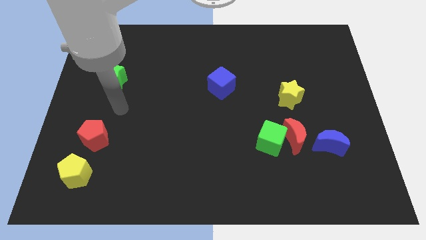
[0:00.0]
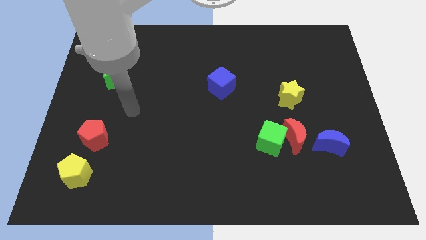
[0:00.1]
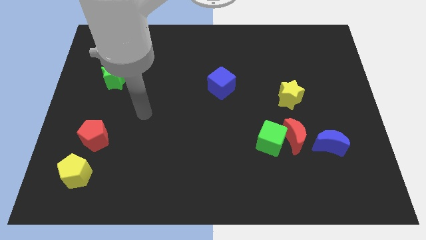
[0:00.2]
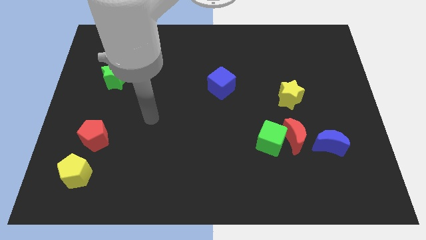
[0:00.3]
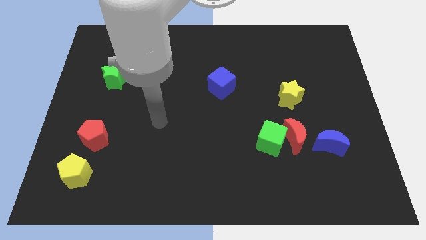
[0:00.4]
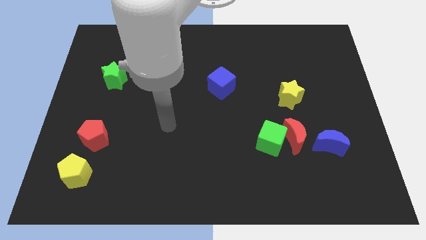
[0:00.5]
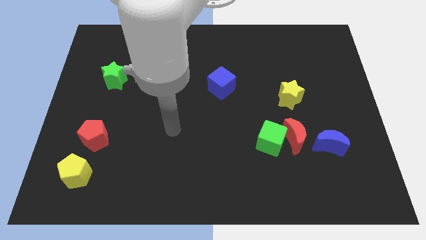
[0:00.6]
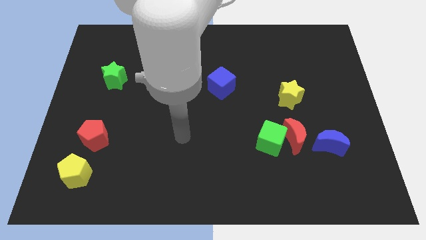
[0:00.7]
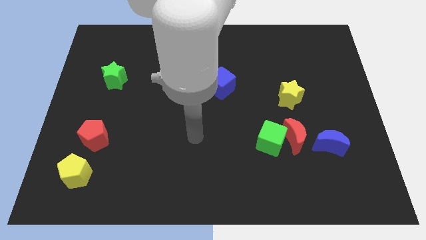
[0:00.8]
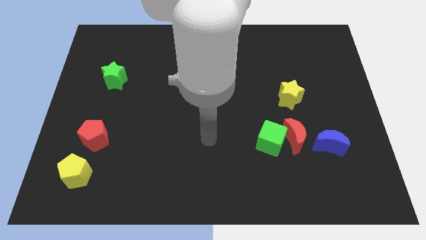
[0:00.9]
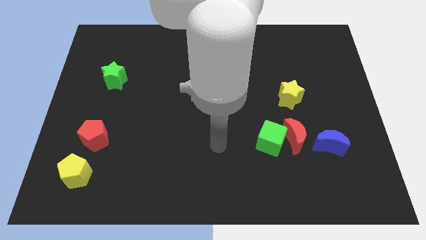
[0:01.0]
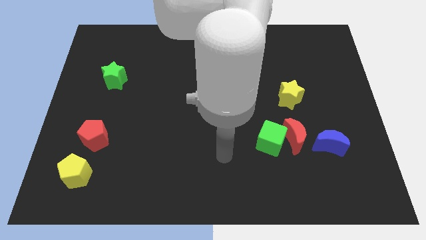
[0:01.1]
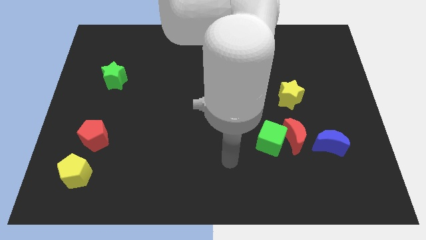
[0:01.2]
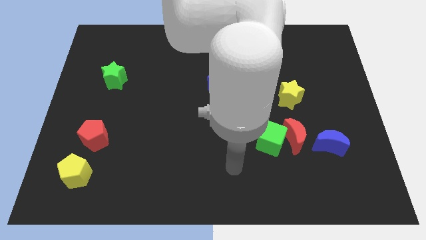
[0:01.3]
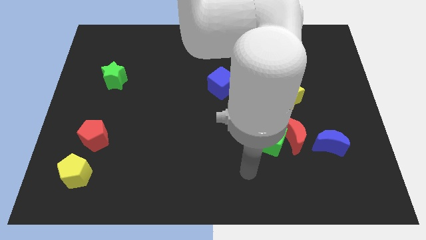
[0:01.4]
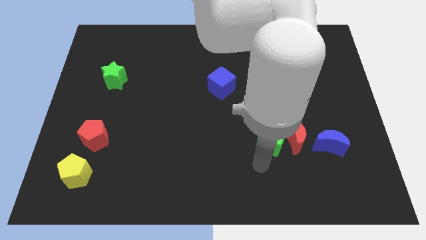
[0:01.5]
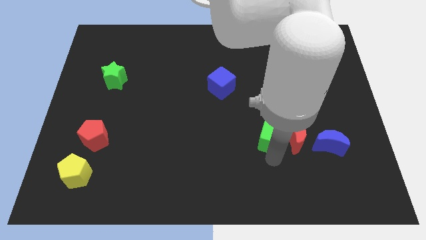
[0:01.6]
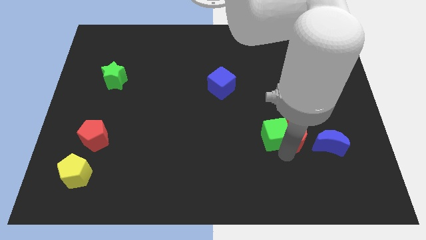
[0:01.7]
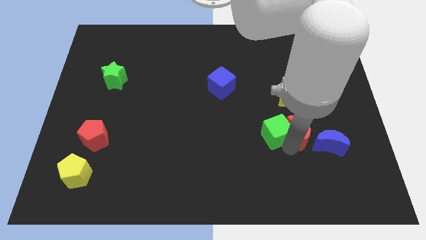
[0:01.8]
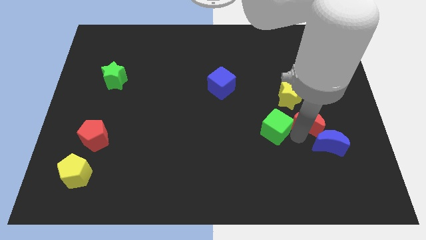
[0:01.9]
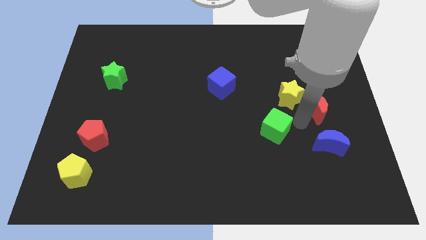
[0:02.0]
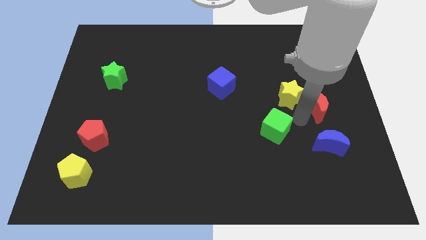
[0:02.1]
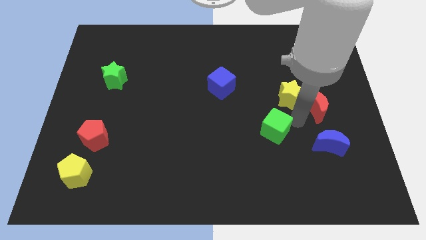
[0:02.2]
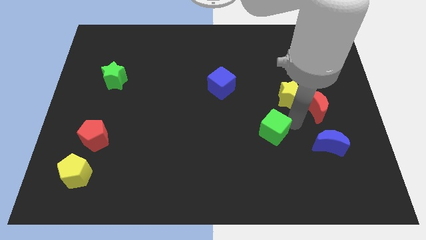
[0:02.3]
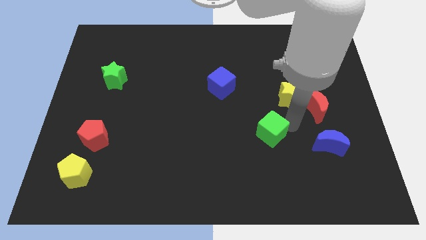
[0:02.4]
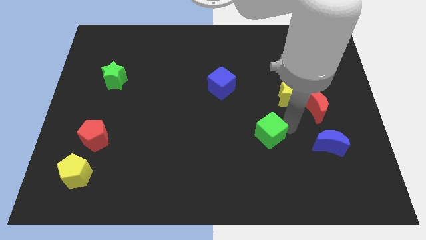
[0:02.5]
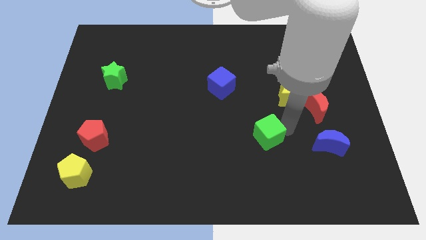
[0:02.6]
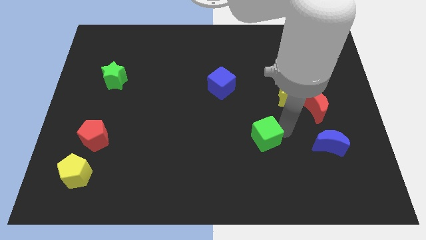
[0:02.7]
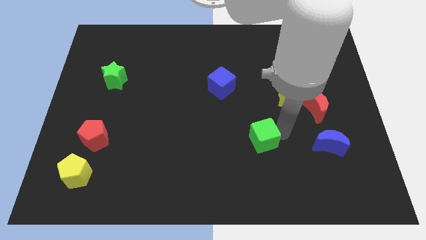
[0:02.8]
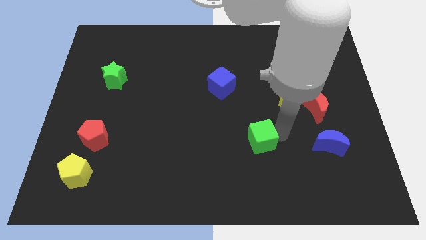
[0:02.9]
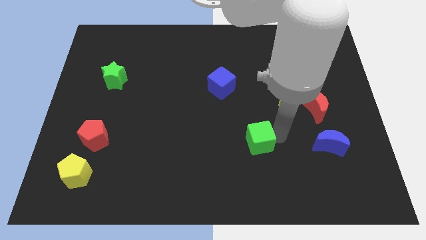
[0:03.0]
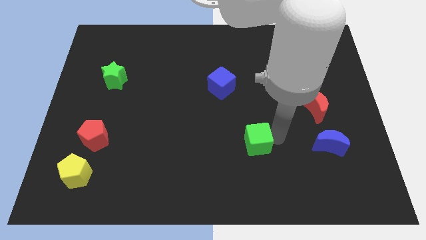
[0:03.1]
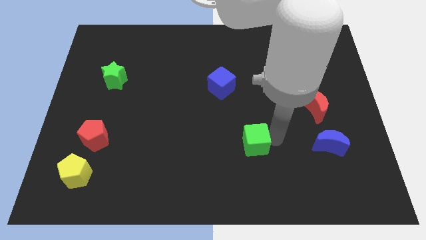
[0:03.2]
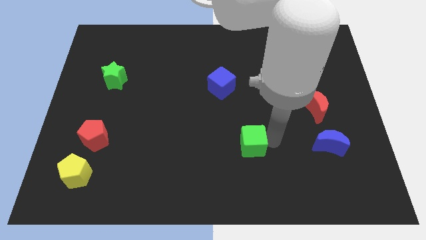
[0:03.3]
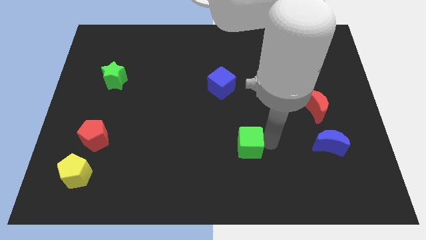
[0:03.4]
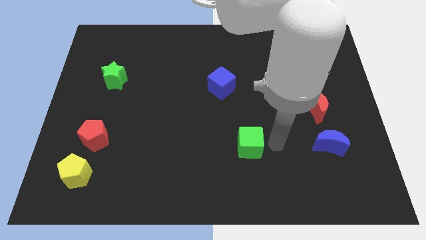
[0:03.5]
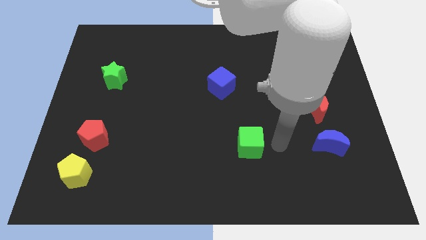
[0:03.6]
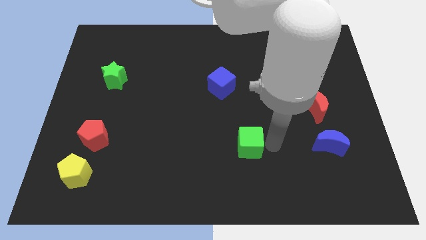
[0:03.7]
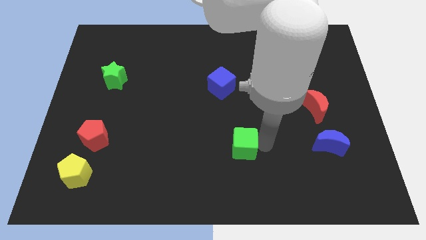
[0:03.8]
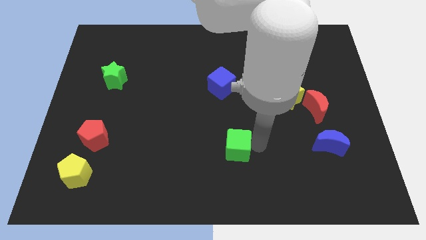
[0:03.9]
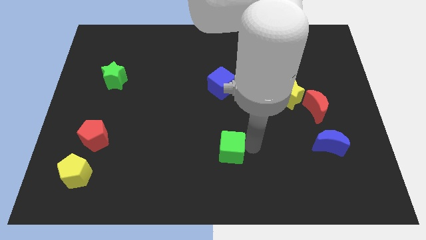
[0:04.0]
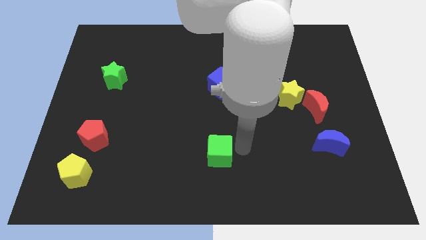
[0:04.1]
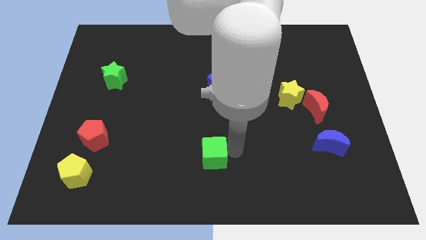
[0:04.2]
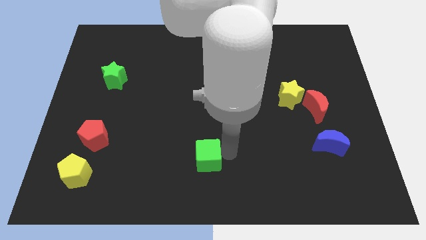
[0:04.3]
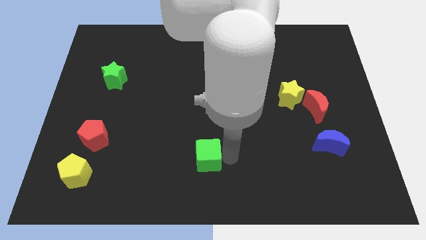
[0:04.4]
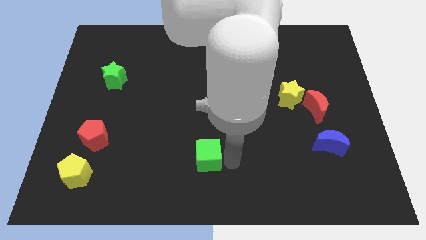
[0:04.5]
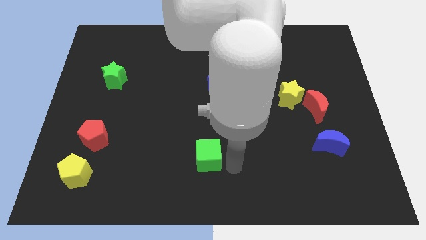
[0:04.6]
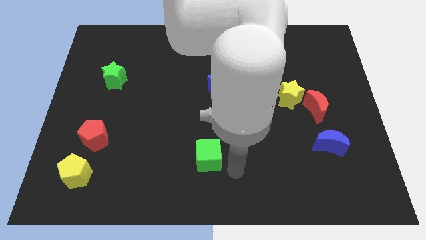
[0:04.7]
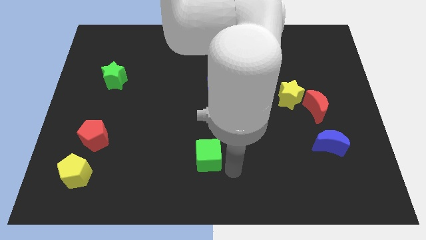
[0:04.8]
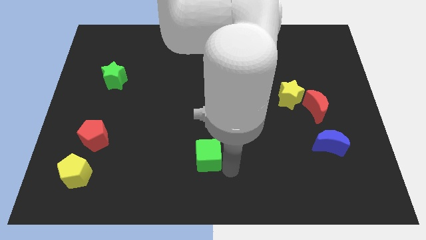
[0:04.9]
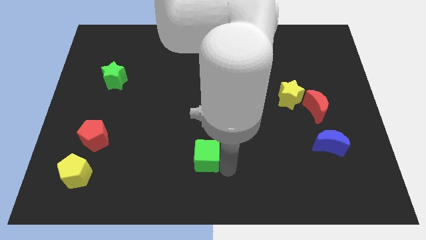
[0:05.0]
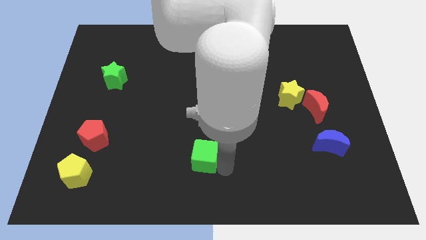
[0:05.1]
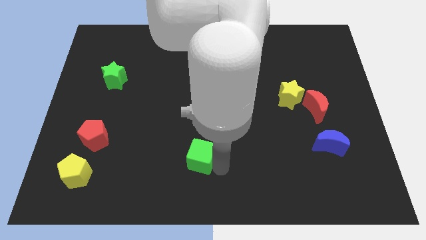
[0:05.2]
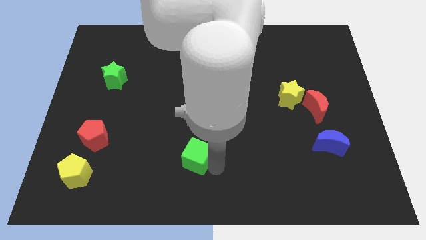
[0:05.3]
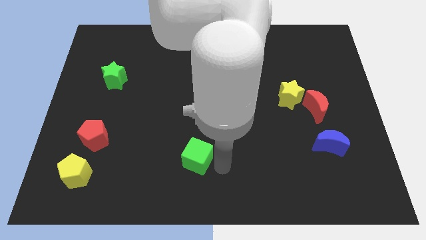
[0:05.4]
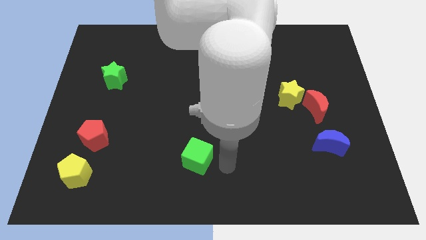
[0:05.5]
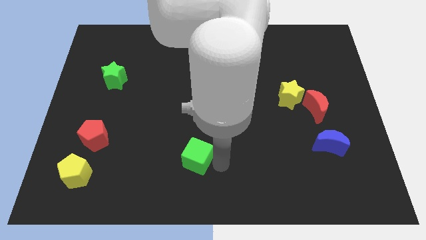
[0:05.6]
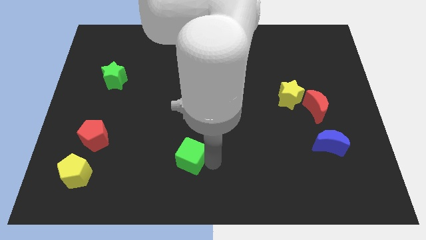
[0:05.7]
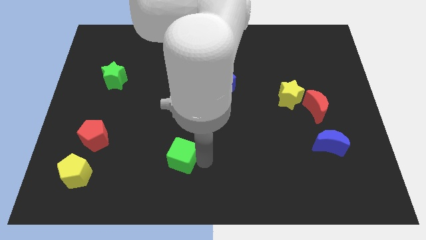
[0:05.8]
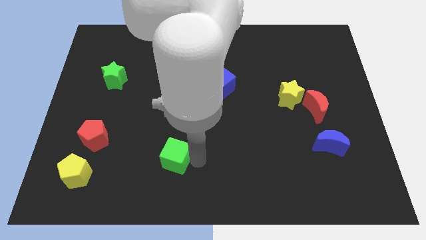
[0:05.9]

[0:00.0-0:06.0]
slide the green cube to the left

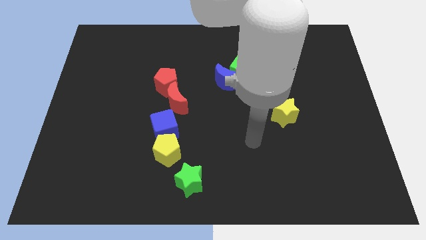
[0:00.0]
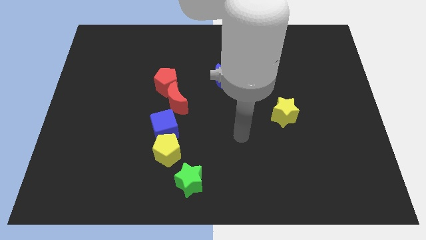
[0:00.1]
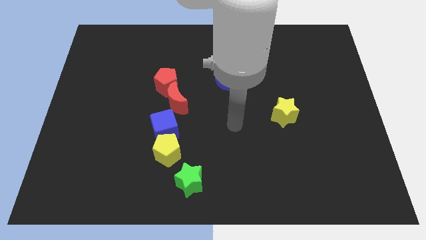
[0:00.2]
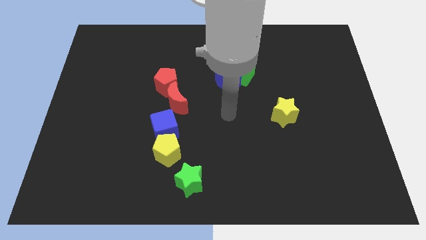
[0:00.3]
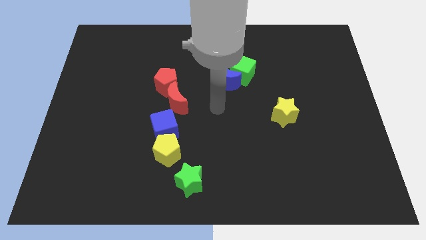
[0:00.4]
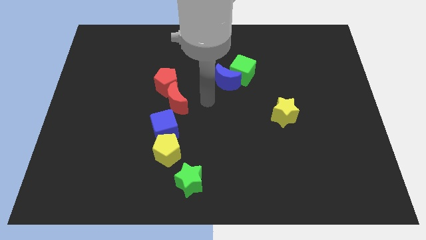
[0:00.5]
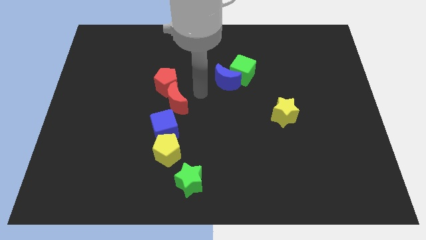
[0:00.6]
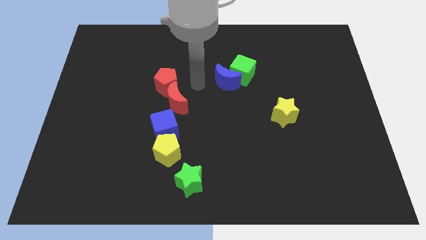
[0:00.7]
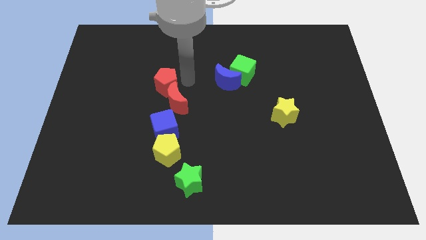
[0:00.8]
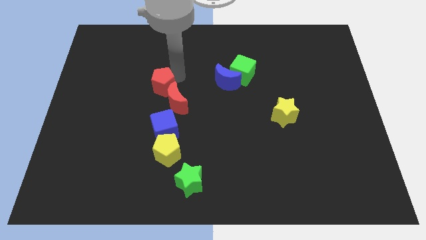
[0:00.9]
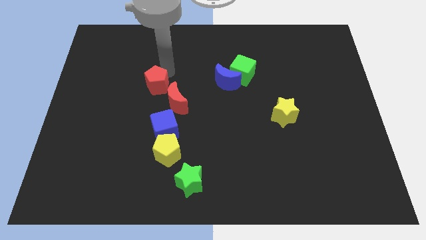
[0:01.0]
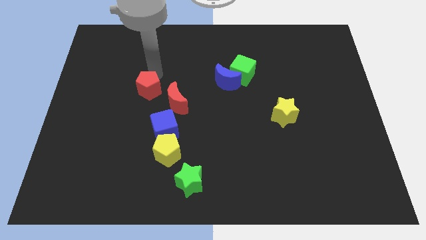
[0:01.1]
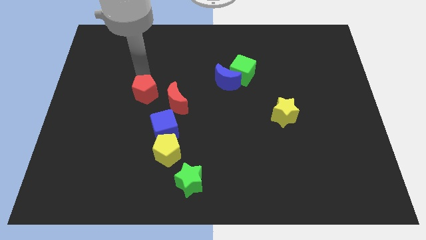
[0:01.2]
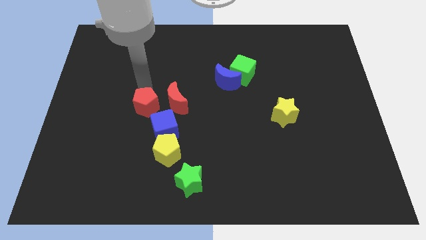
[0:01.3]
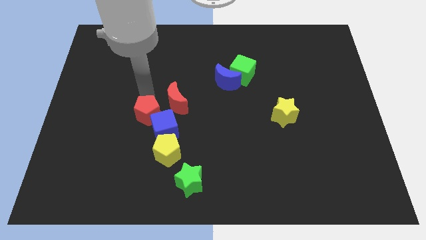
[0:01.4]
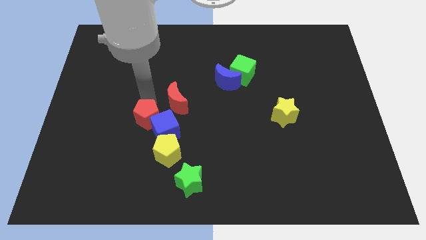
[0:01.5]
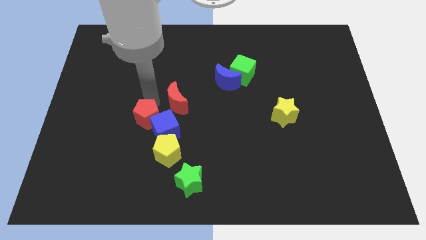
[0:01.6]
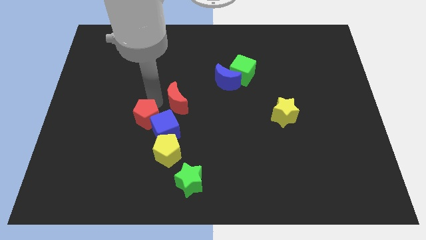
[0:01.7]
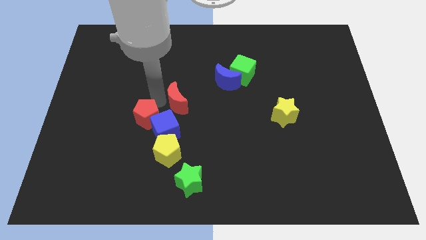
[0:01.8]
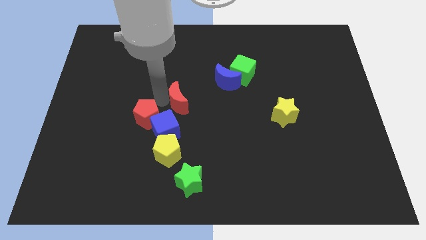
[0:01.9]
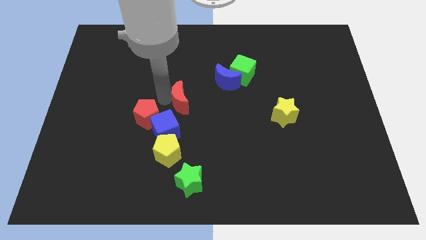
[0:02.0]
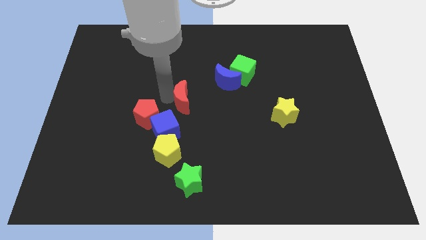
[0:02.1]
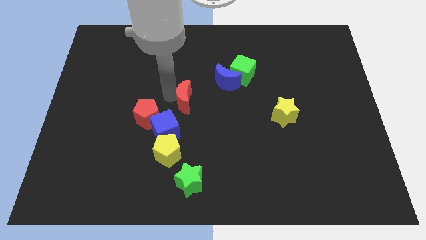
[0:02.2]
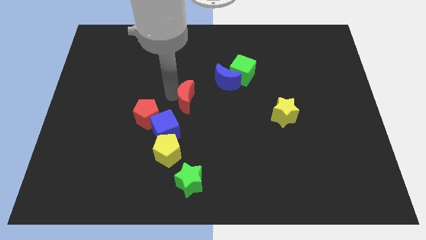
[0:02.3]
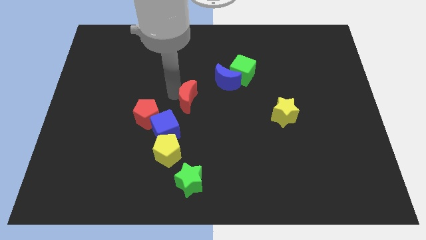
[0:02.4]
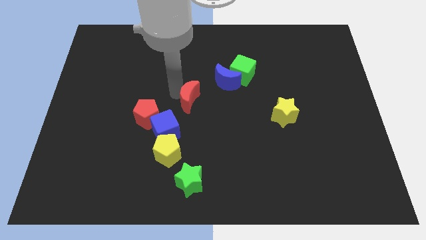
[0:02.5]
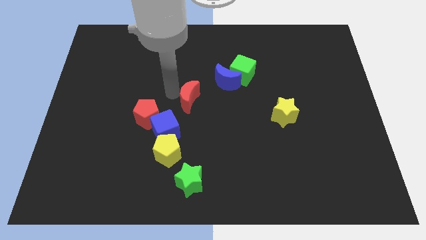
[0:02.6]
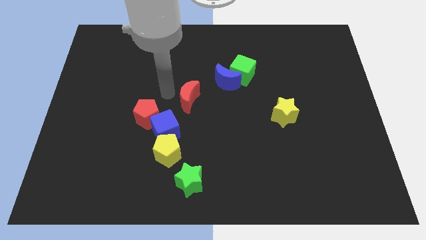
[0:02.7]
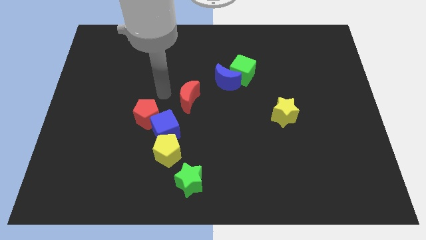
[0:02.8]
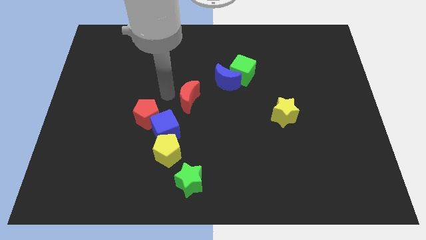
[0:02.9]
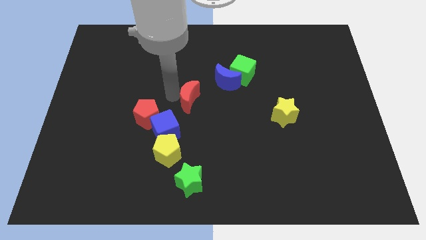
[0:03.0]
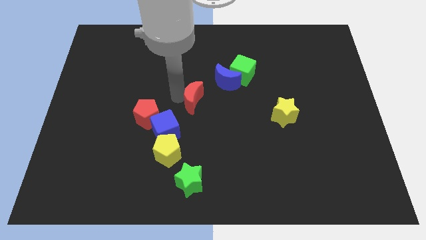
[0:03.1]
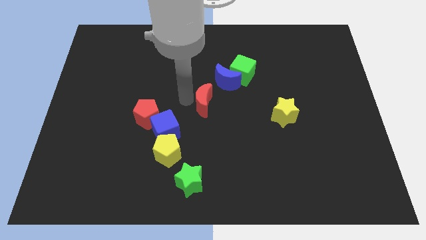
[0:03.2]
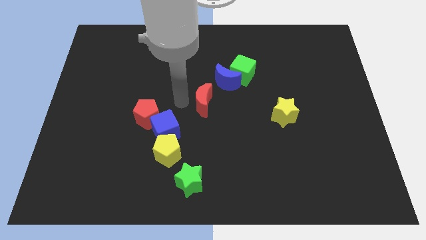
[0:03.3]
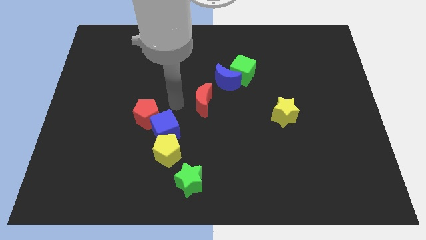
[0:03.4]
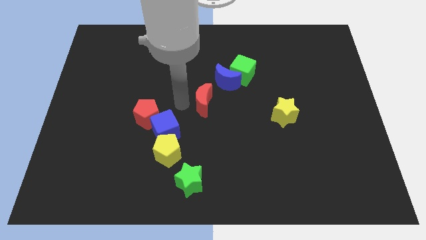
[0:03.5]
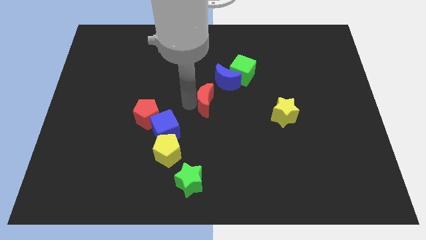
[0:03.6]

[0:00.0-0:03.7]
slightly push the red moon to the right
